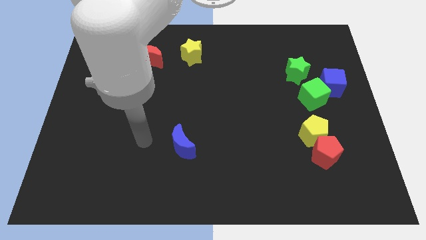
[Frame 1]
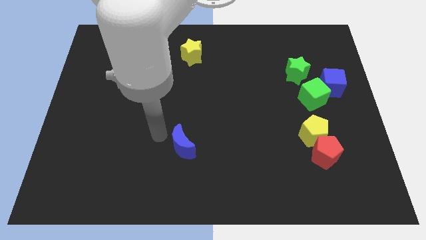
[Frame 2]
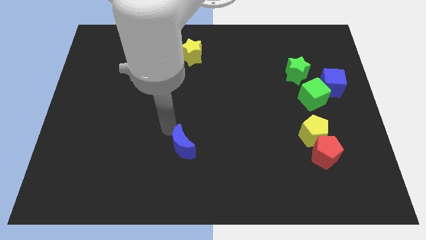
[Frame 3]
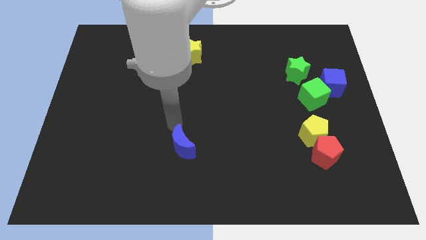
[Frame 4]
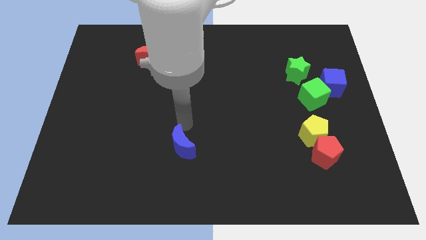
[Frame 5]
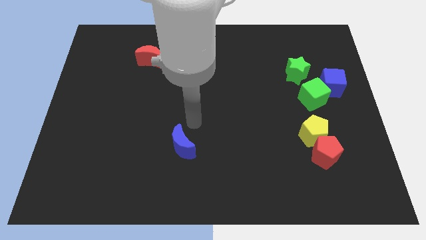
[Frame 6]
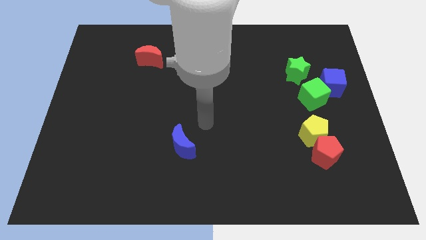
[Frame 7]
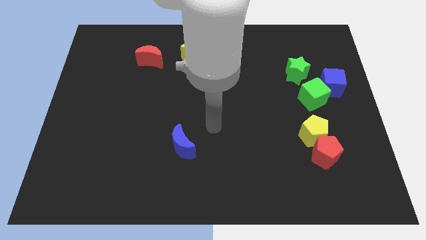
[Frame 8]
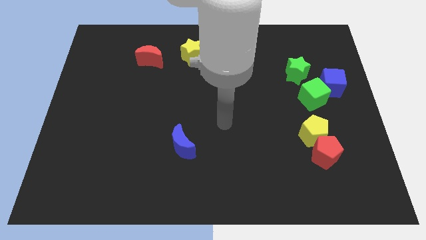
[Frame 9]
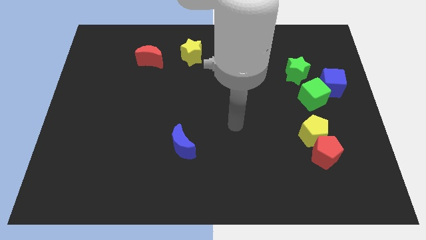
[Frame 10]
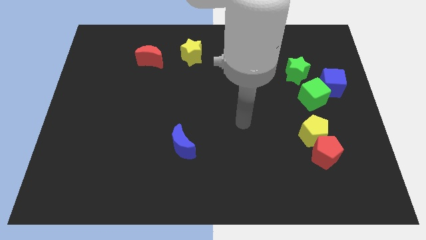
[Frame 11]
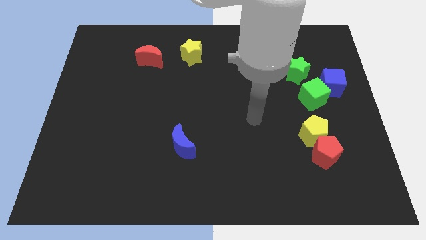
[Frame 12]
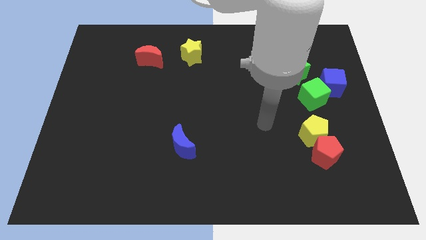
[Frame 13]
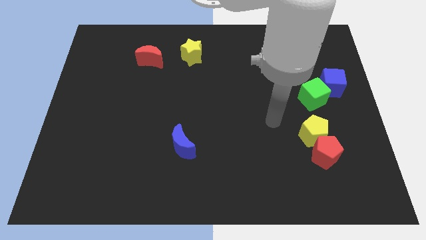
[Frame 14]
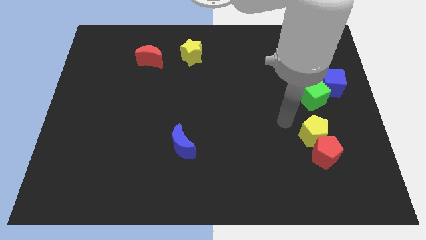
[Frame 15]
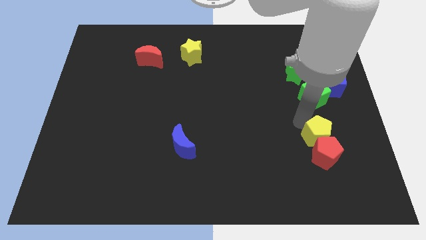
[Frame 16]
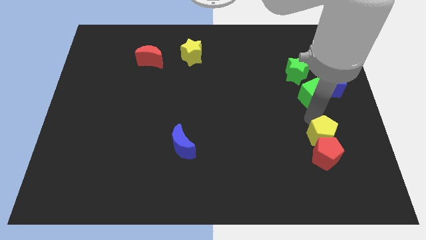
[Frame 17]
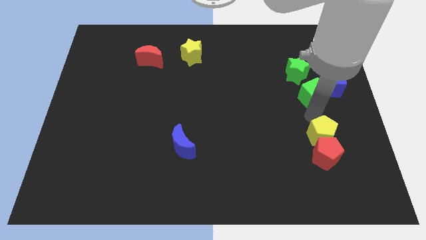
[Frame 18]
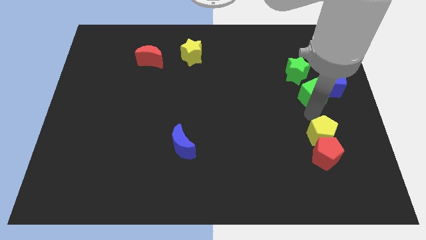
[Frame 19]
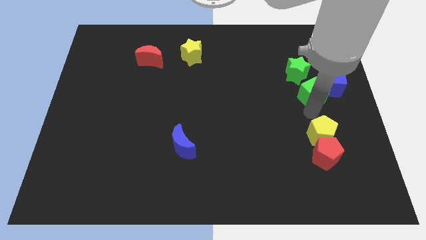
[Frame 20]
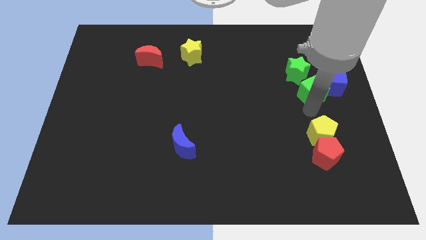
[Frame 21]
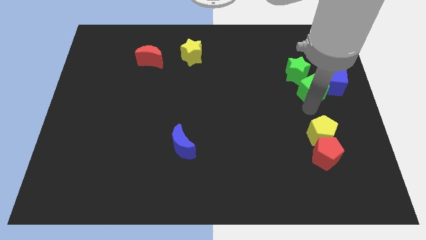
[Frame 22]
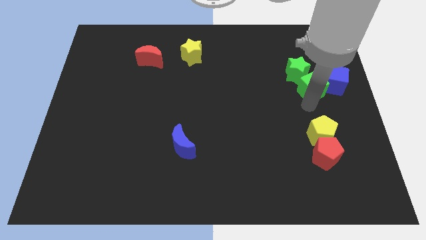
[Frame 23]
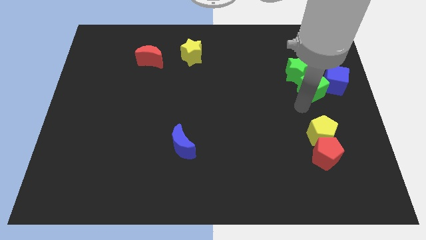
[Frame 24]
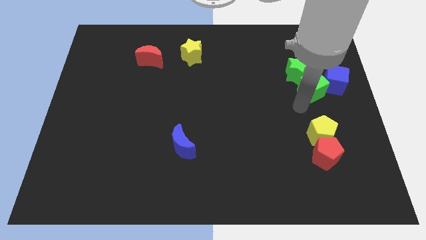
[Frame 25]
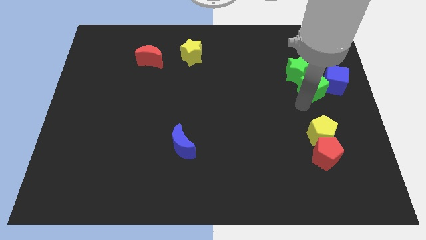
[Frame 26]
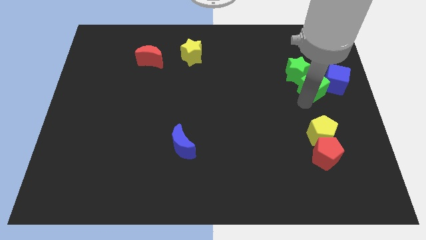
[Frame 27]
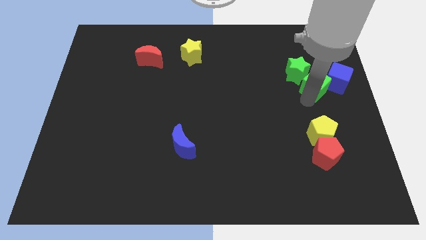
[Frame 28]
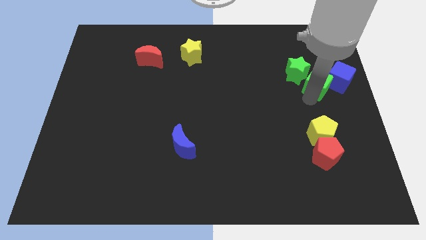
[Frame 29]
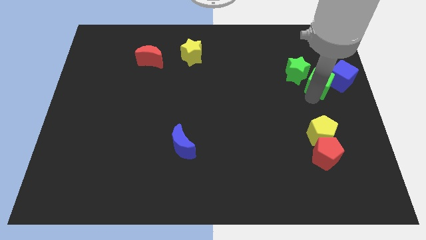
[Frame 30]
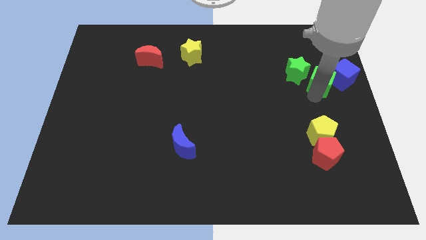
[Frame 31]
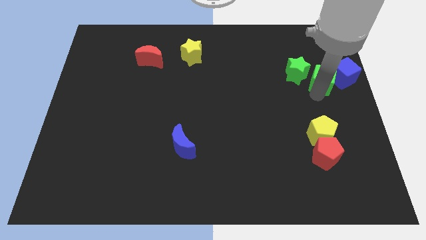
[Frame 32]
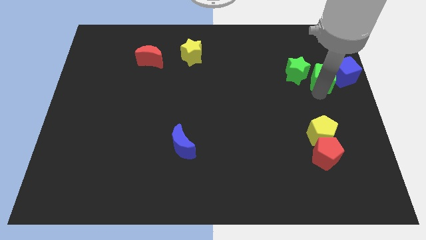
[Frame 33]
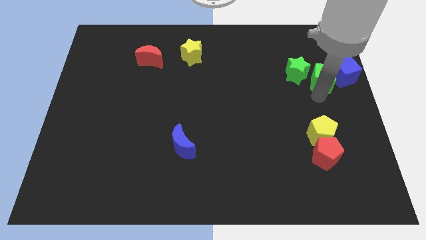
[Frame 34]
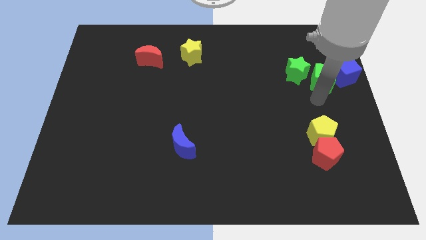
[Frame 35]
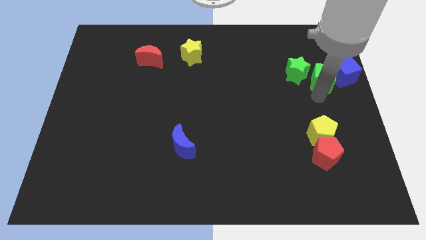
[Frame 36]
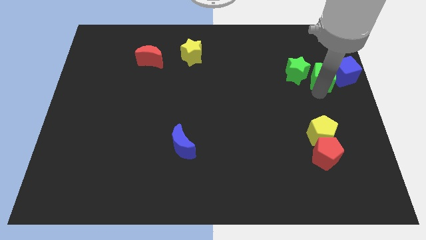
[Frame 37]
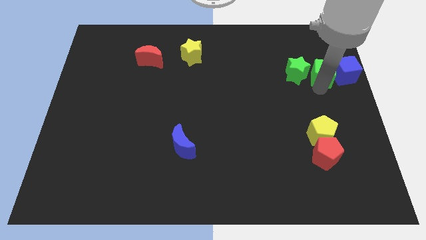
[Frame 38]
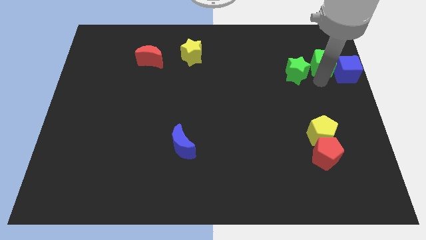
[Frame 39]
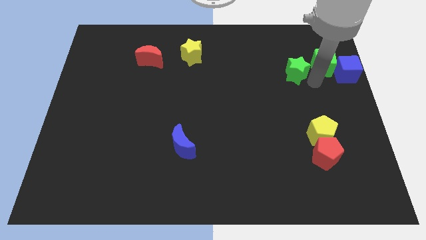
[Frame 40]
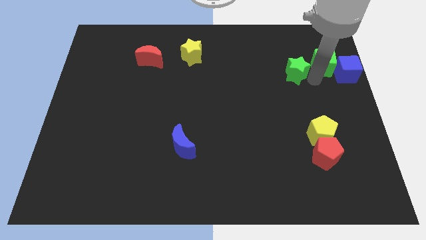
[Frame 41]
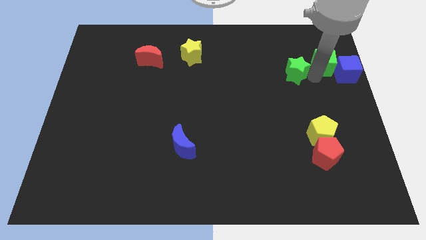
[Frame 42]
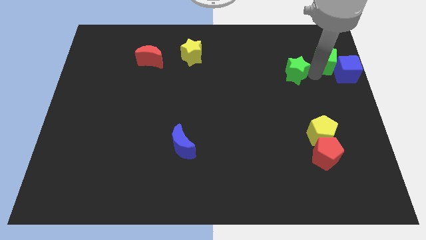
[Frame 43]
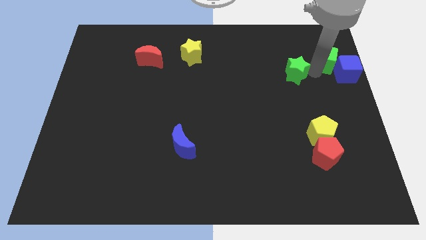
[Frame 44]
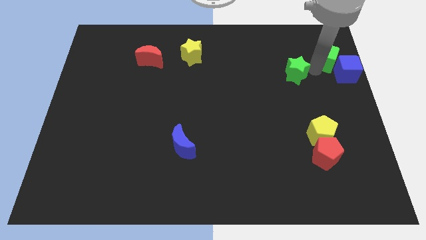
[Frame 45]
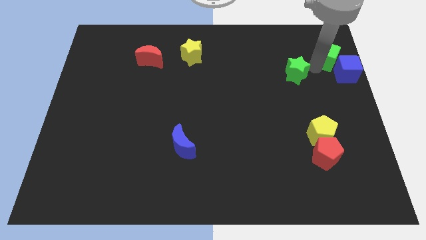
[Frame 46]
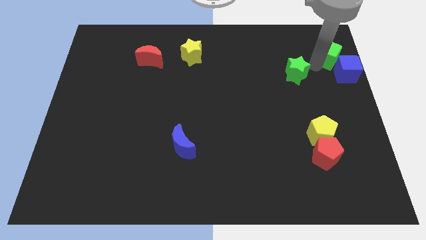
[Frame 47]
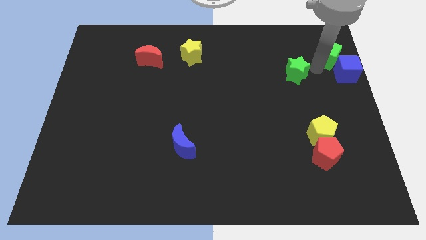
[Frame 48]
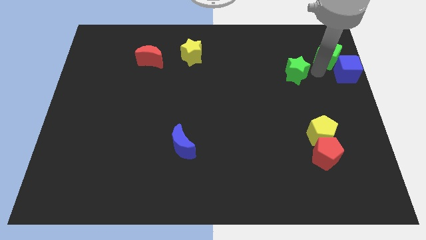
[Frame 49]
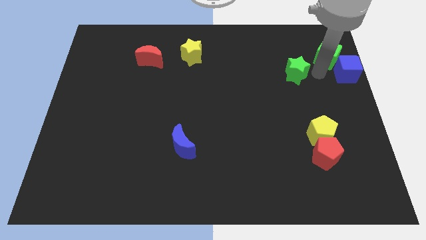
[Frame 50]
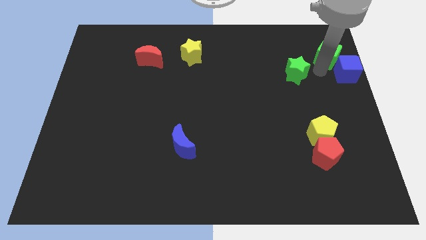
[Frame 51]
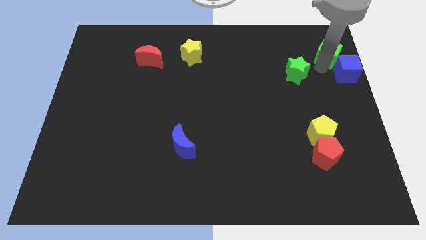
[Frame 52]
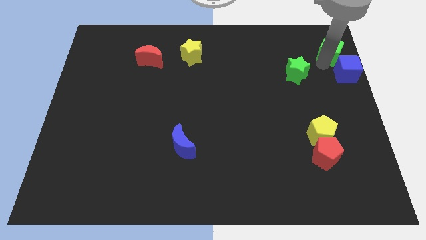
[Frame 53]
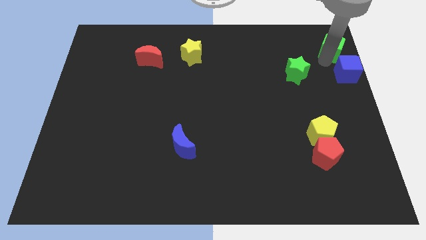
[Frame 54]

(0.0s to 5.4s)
slide the green cube to the top right corner

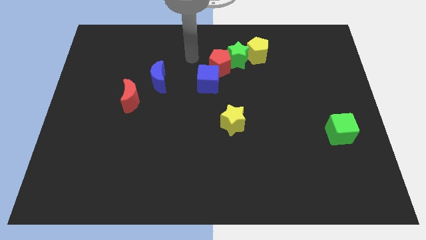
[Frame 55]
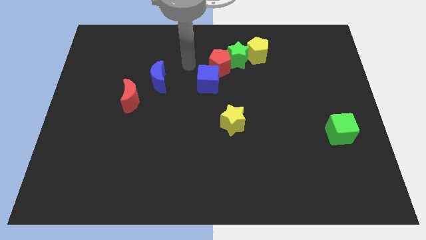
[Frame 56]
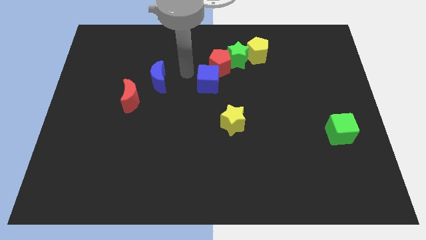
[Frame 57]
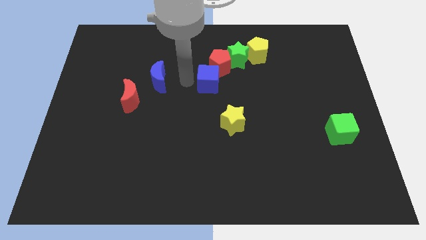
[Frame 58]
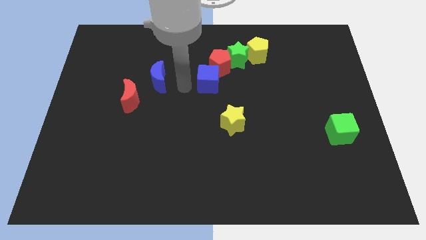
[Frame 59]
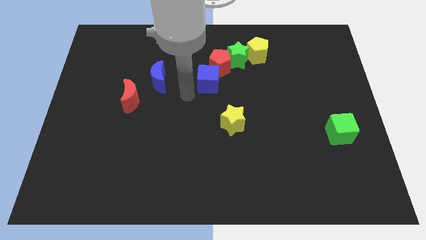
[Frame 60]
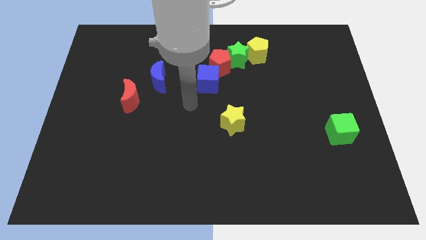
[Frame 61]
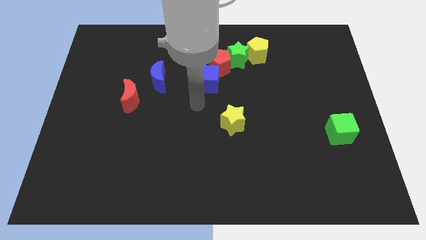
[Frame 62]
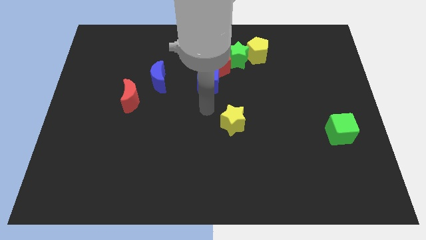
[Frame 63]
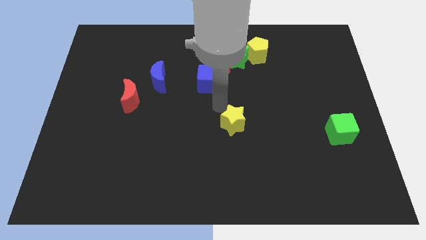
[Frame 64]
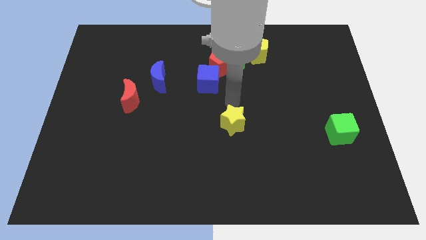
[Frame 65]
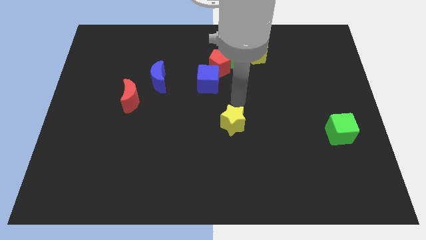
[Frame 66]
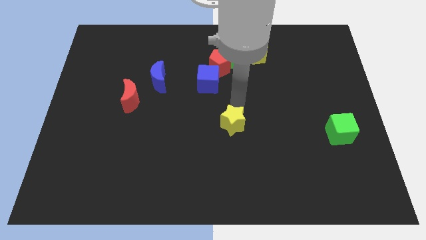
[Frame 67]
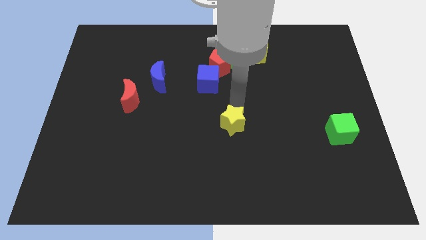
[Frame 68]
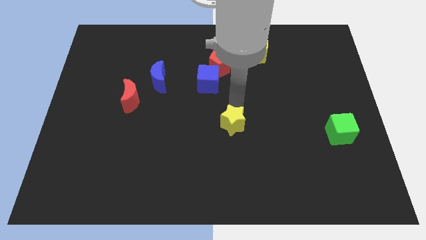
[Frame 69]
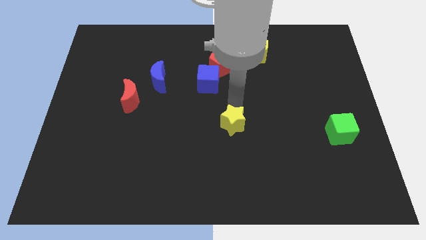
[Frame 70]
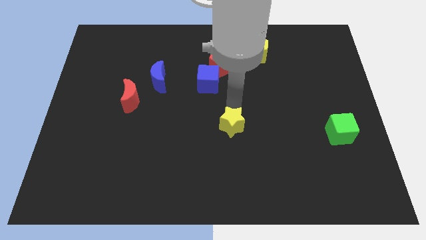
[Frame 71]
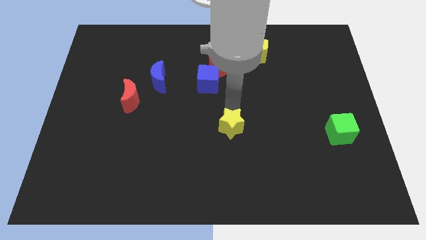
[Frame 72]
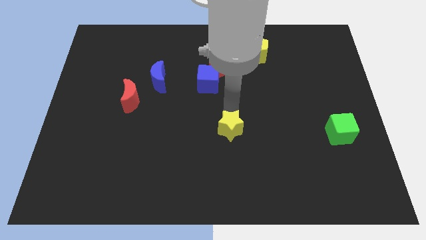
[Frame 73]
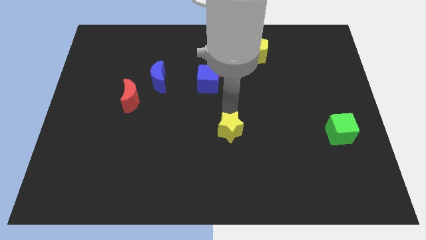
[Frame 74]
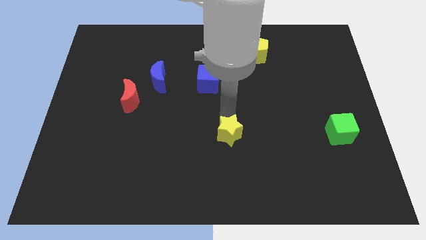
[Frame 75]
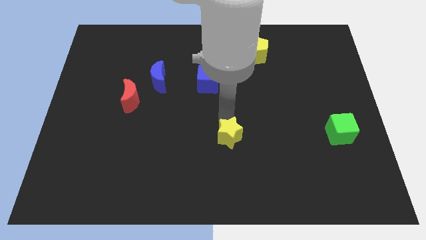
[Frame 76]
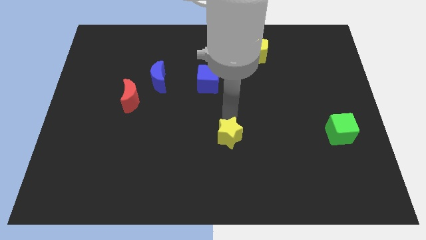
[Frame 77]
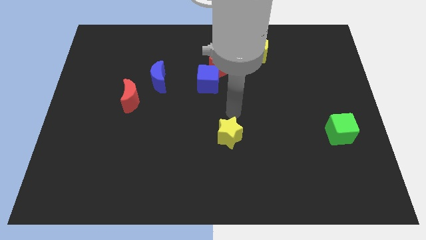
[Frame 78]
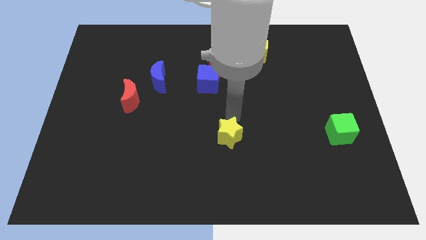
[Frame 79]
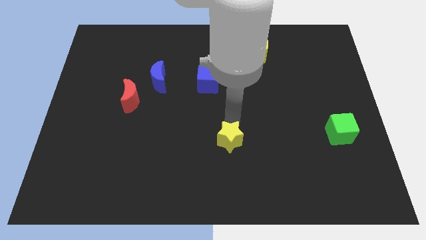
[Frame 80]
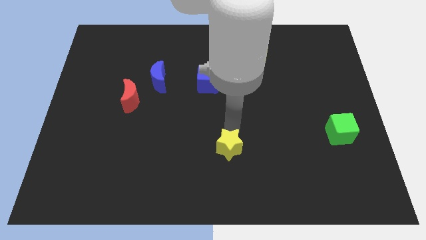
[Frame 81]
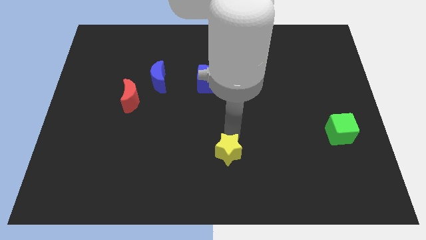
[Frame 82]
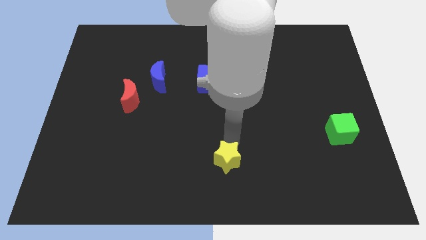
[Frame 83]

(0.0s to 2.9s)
slide the yellow star to the bottom
